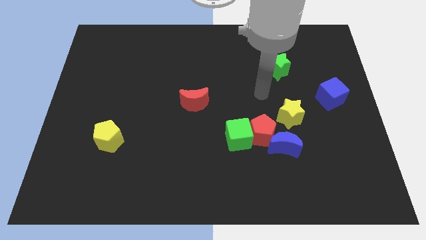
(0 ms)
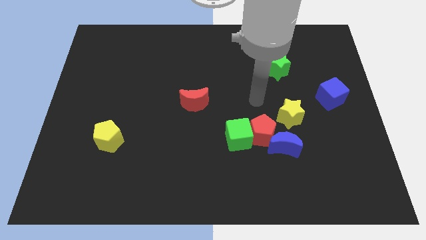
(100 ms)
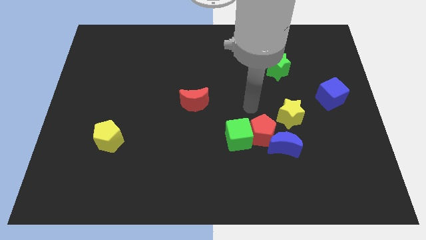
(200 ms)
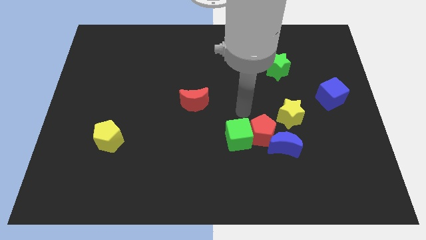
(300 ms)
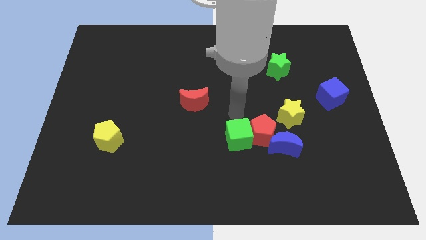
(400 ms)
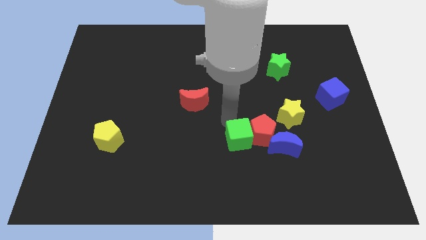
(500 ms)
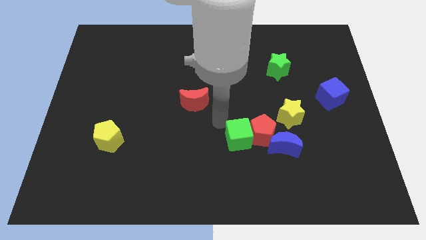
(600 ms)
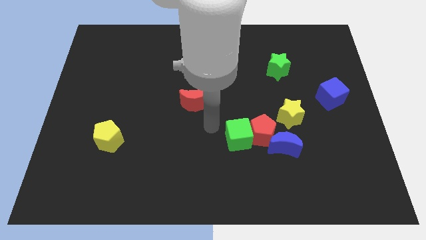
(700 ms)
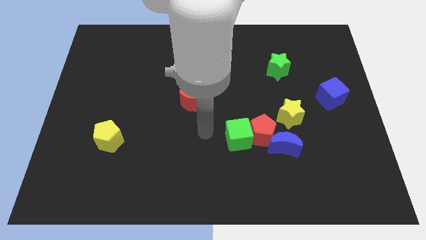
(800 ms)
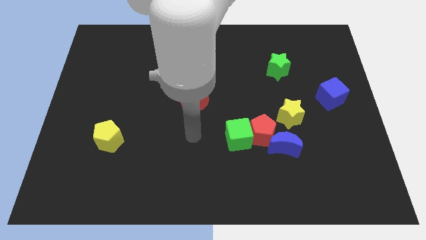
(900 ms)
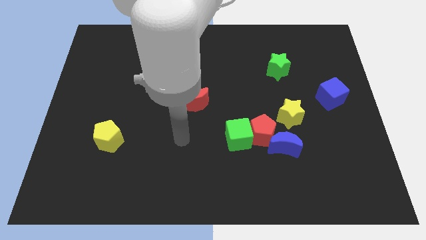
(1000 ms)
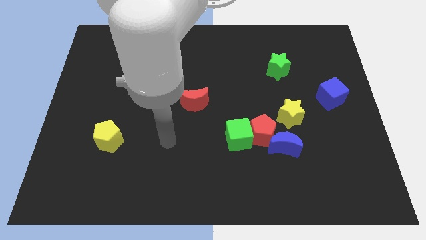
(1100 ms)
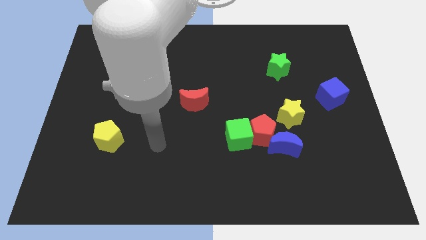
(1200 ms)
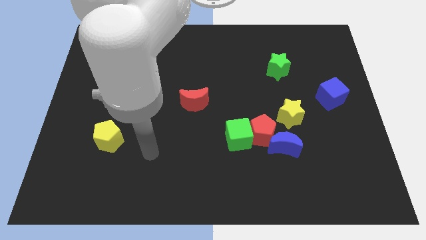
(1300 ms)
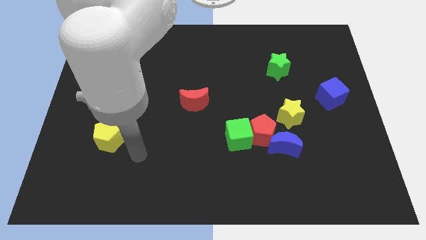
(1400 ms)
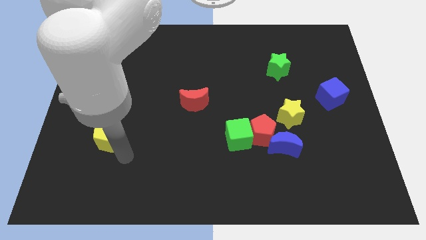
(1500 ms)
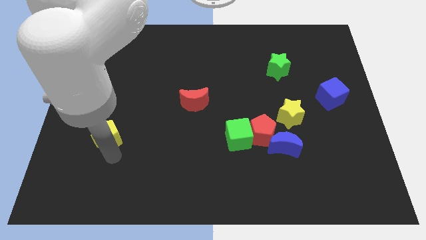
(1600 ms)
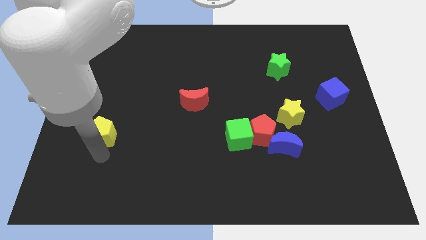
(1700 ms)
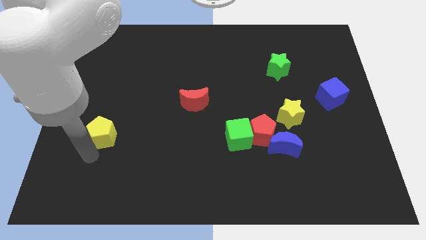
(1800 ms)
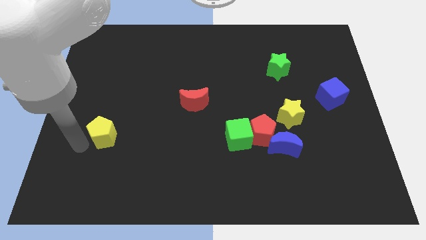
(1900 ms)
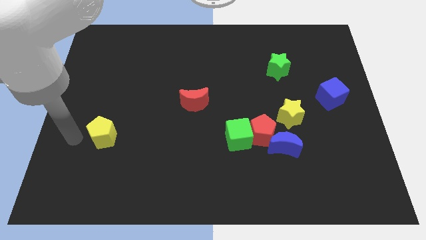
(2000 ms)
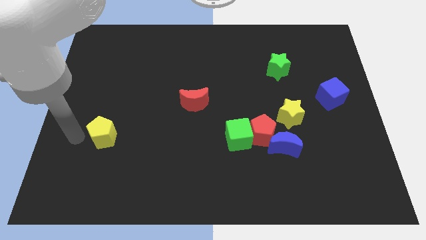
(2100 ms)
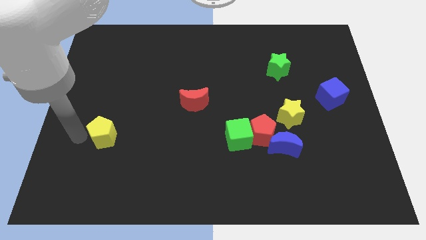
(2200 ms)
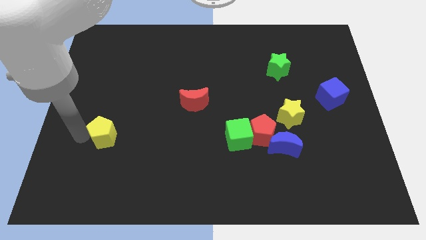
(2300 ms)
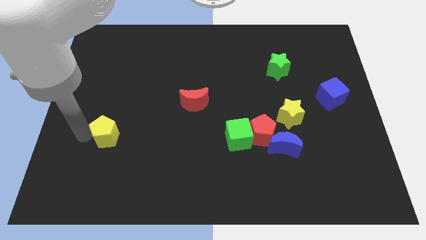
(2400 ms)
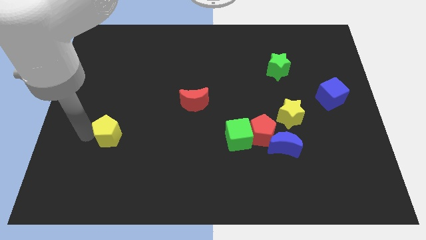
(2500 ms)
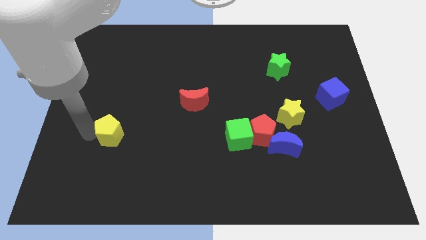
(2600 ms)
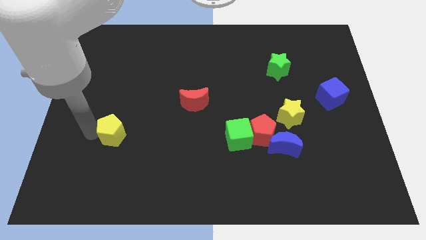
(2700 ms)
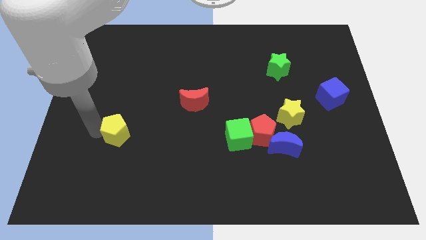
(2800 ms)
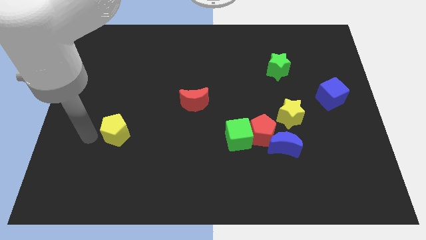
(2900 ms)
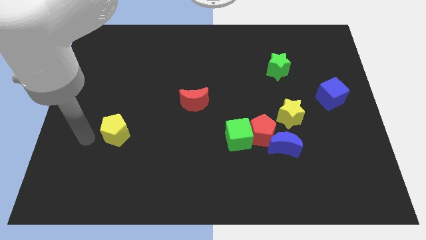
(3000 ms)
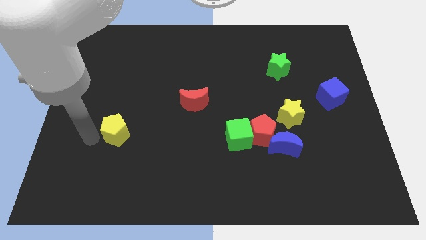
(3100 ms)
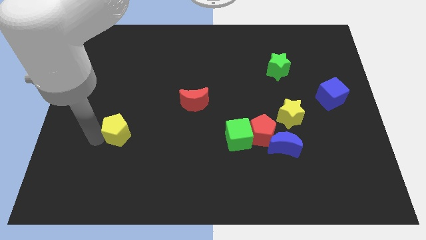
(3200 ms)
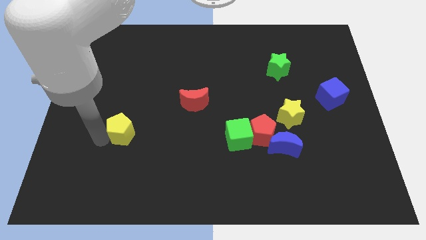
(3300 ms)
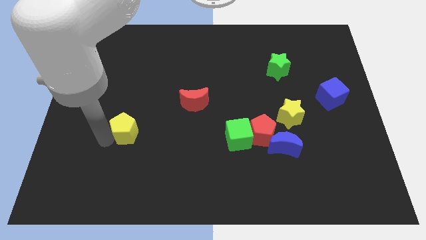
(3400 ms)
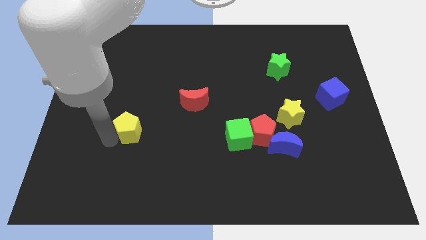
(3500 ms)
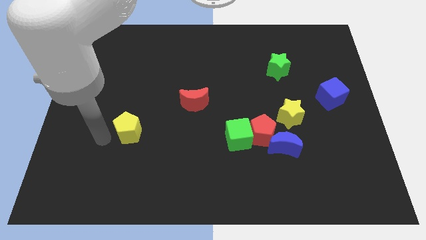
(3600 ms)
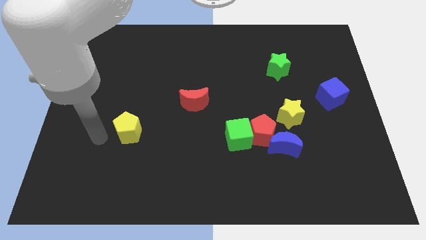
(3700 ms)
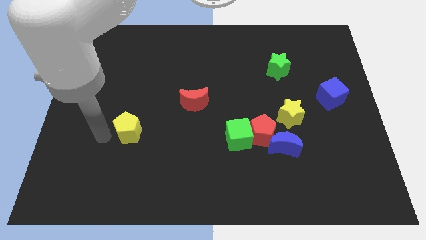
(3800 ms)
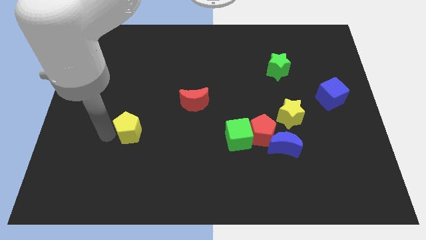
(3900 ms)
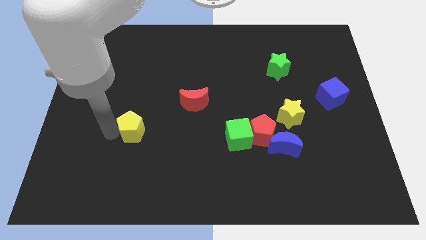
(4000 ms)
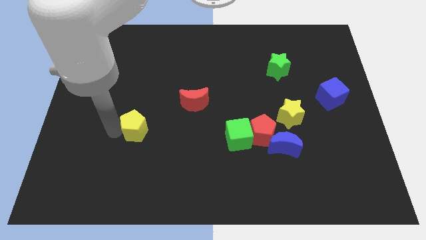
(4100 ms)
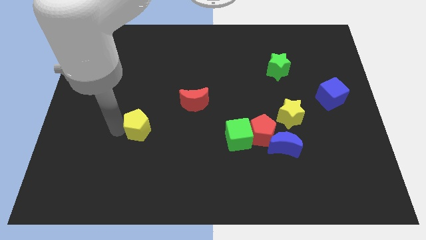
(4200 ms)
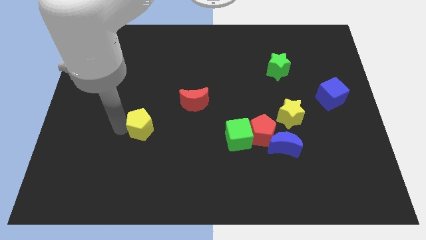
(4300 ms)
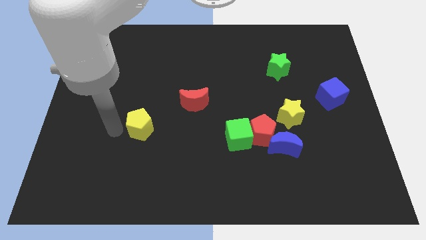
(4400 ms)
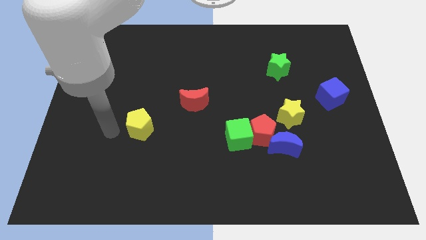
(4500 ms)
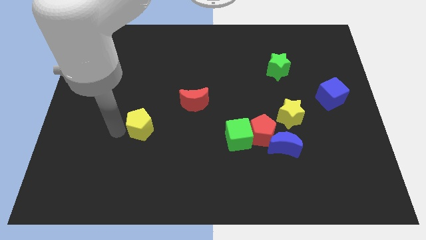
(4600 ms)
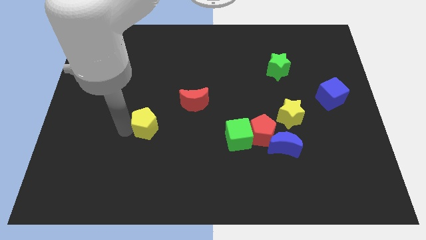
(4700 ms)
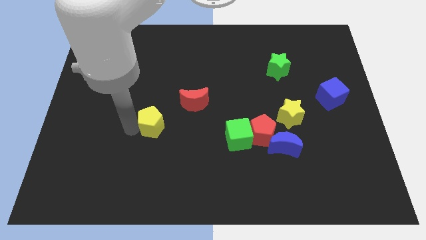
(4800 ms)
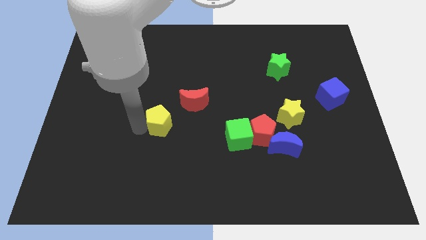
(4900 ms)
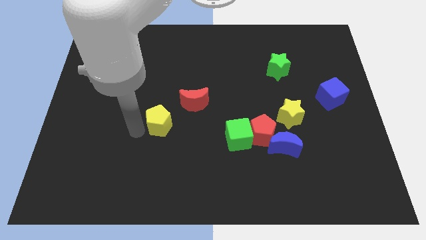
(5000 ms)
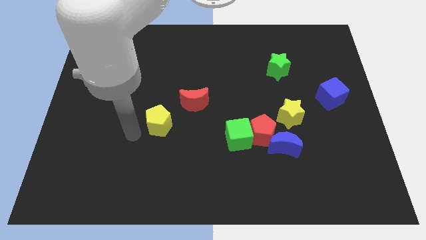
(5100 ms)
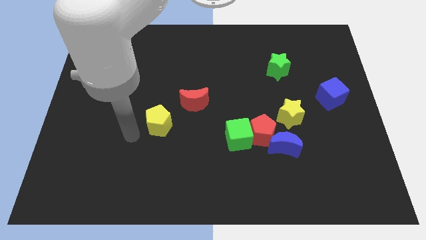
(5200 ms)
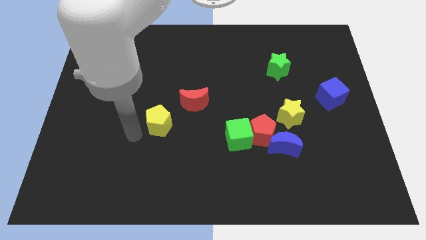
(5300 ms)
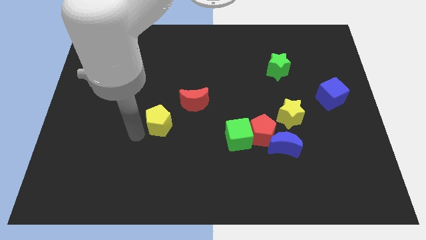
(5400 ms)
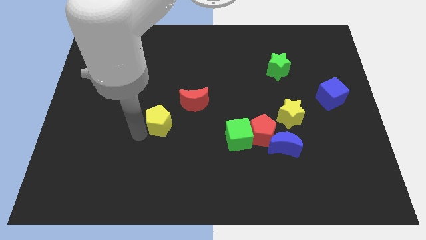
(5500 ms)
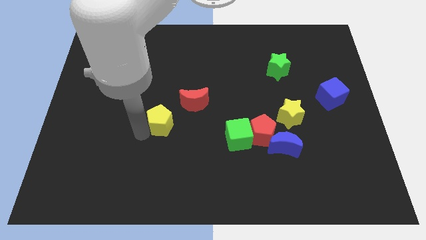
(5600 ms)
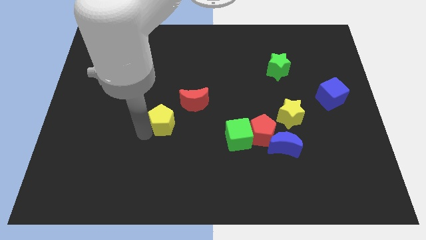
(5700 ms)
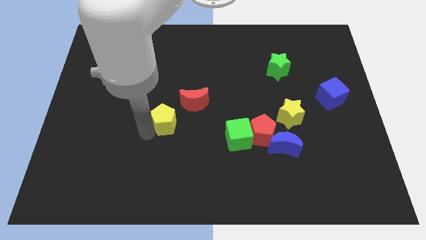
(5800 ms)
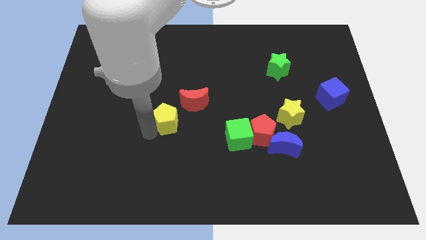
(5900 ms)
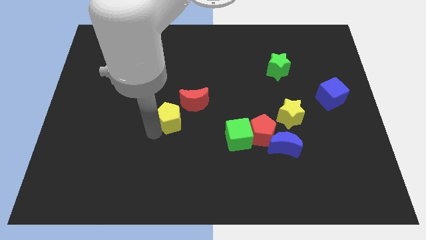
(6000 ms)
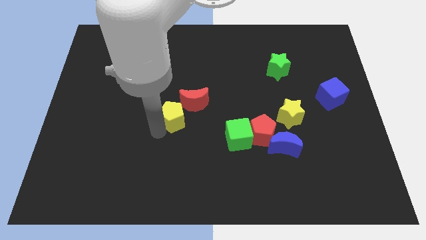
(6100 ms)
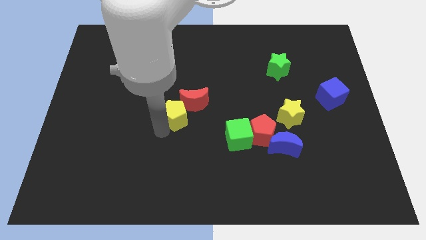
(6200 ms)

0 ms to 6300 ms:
put the yellow pentagon to the red moon
